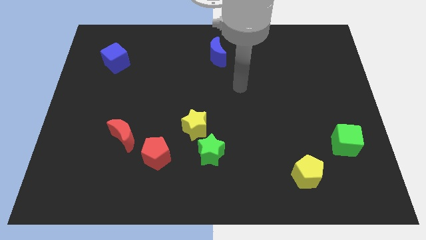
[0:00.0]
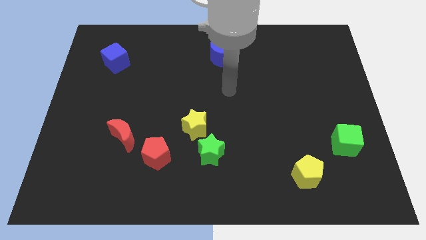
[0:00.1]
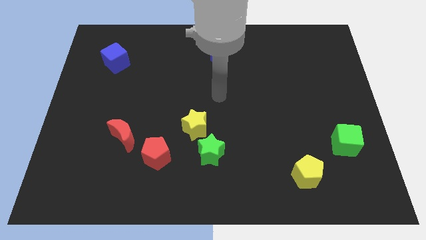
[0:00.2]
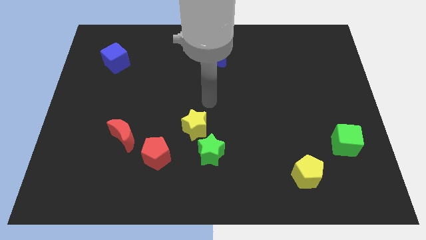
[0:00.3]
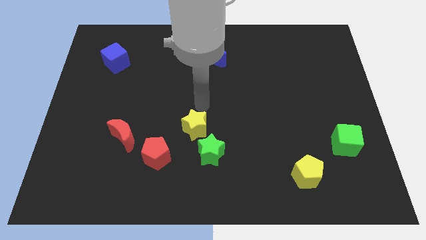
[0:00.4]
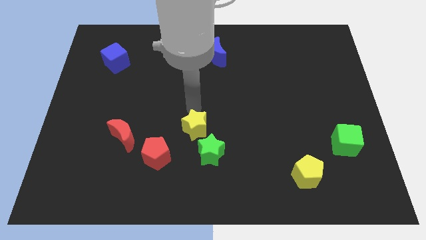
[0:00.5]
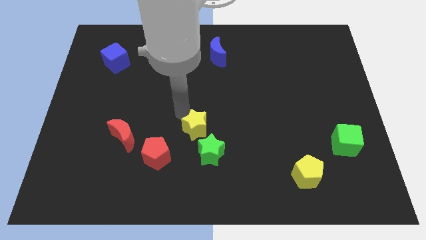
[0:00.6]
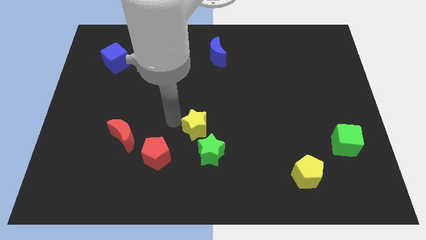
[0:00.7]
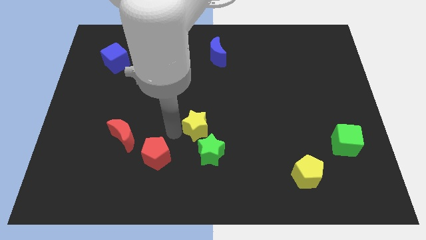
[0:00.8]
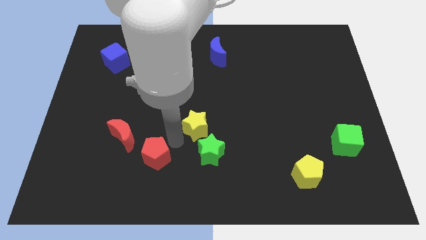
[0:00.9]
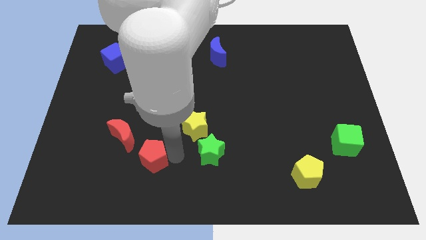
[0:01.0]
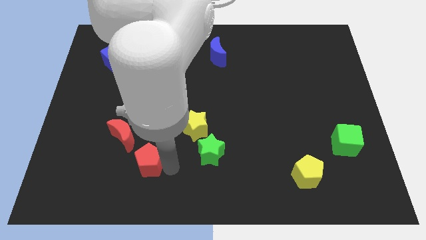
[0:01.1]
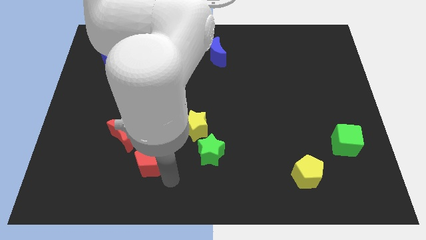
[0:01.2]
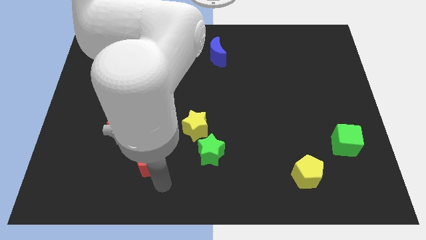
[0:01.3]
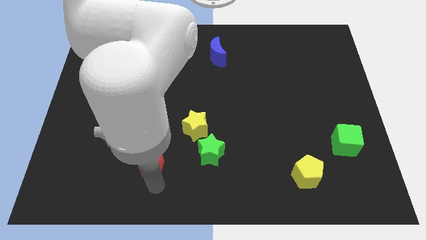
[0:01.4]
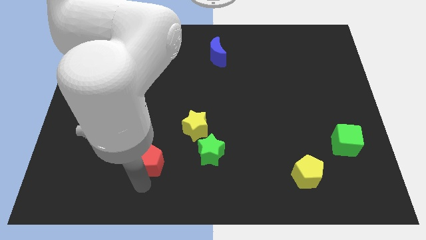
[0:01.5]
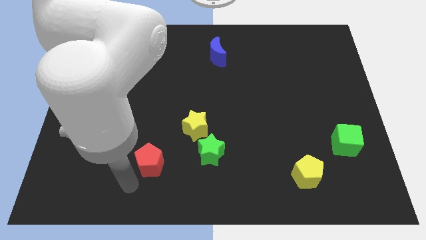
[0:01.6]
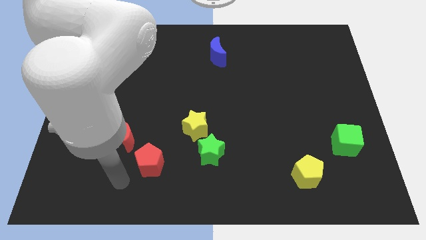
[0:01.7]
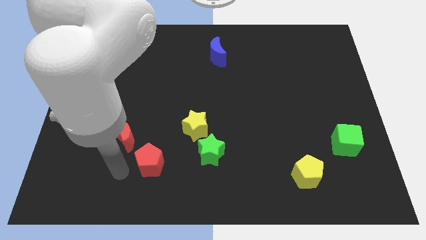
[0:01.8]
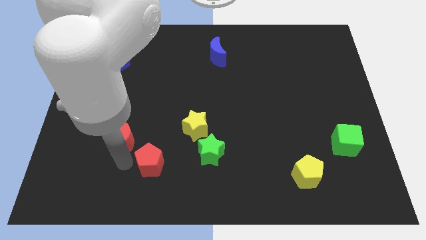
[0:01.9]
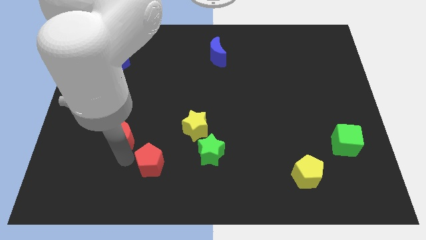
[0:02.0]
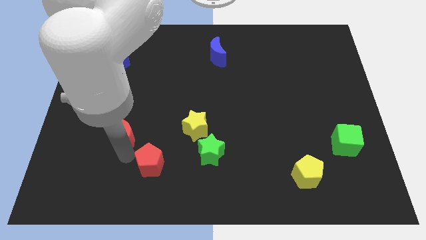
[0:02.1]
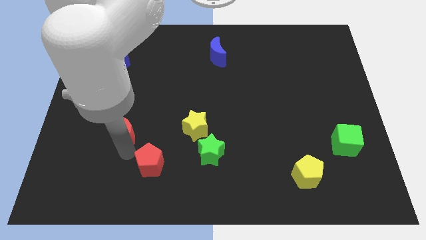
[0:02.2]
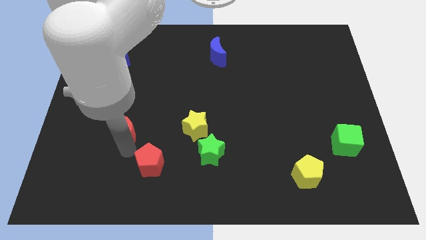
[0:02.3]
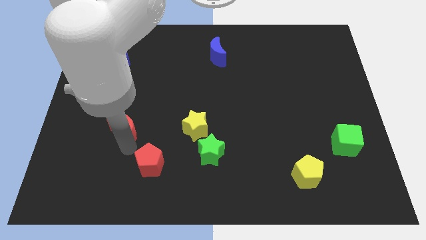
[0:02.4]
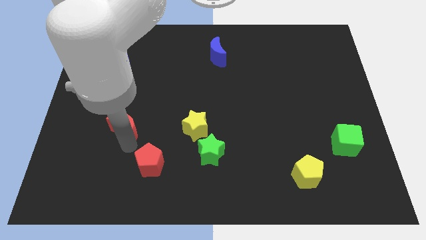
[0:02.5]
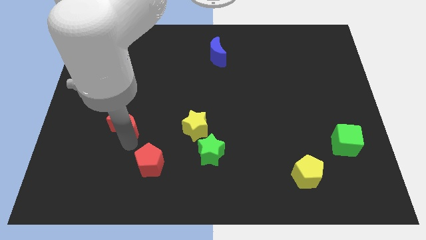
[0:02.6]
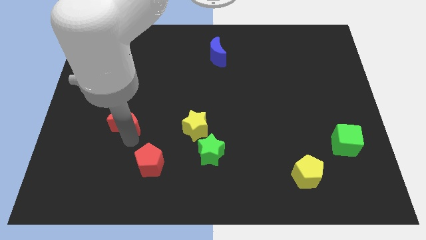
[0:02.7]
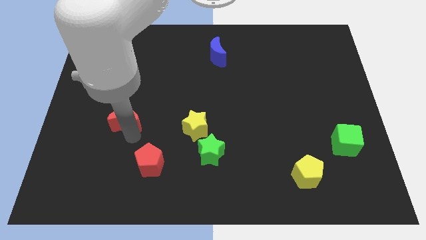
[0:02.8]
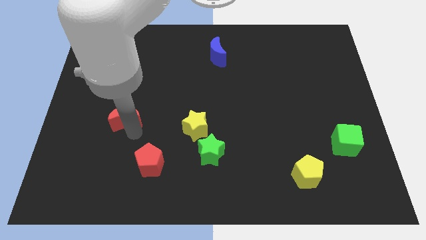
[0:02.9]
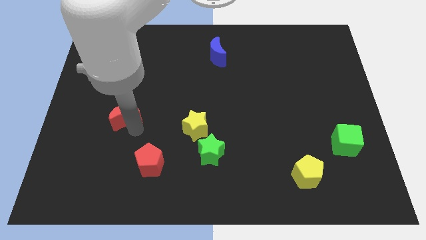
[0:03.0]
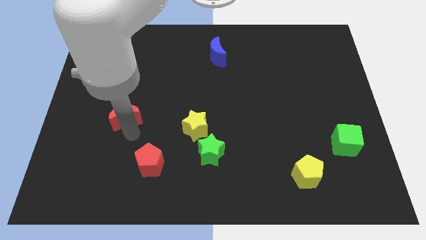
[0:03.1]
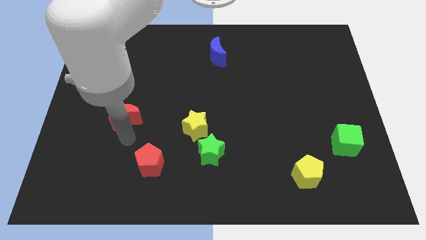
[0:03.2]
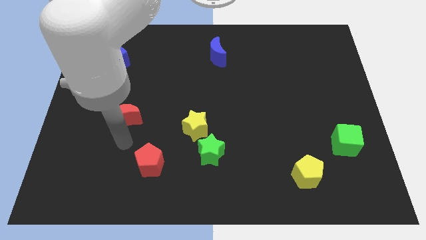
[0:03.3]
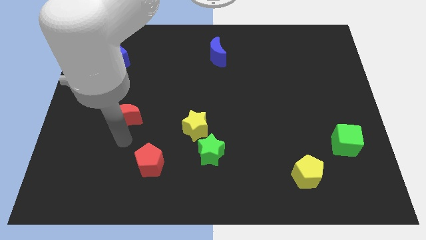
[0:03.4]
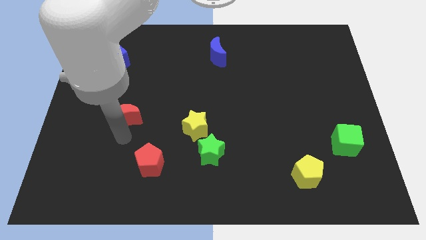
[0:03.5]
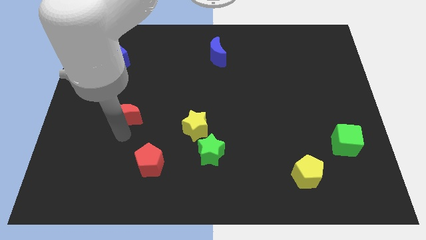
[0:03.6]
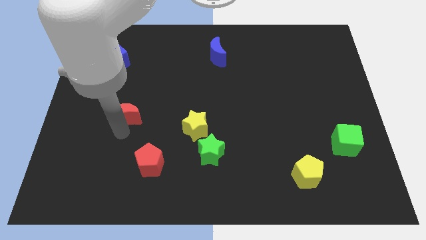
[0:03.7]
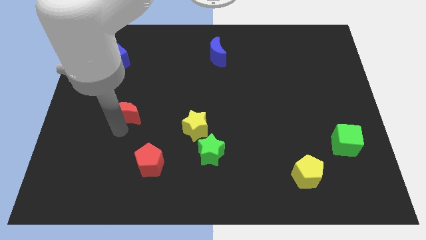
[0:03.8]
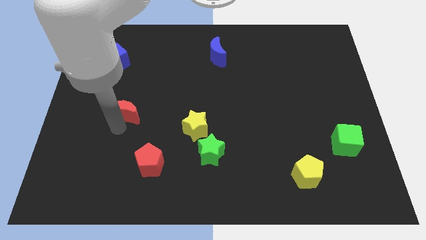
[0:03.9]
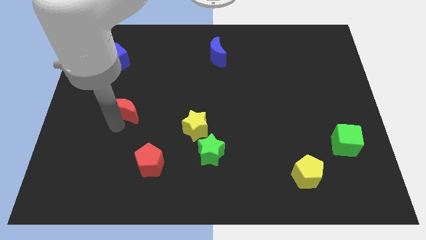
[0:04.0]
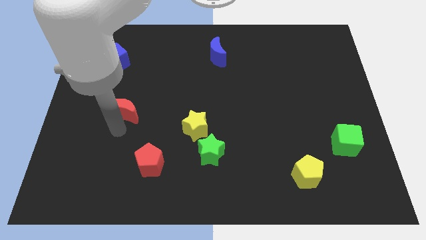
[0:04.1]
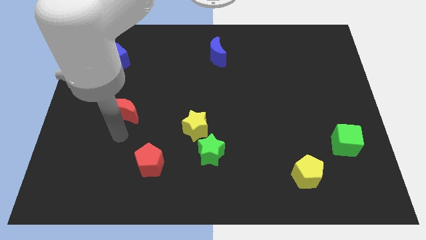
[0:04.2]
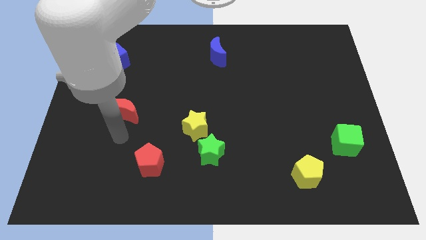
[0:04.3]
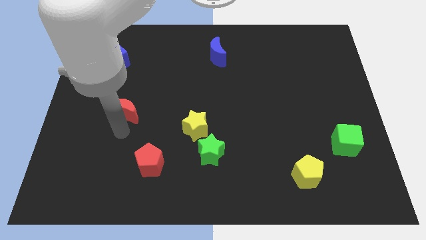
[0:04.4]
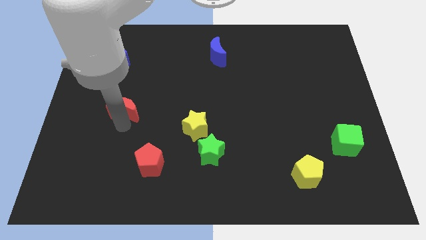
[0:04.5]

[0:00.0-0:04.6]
move the red moon a little upwards

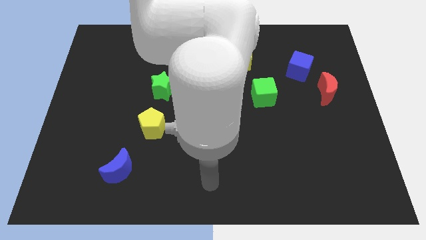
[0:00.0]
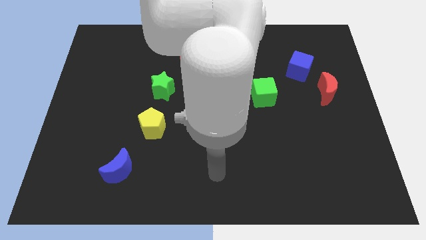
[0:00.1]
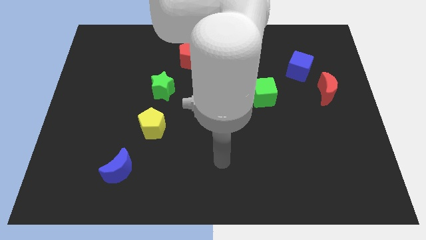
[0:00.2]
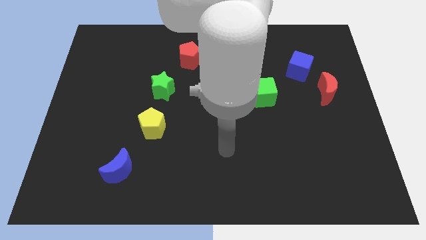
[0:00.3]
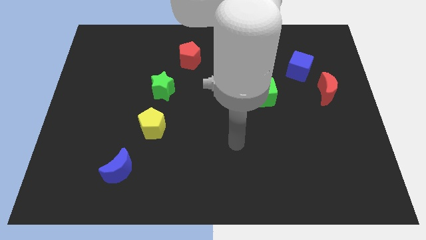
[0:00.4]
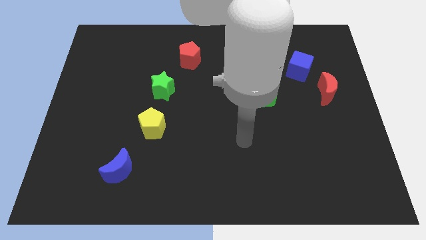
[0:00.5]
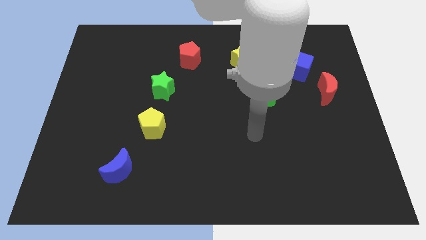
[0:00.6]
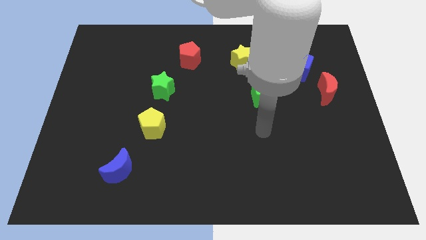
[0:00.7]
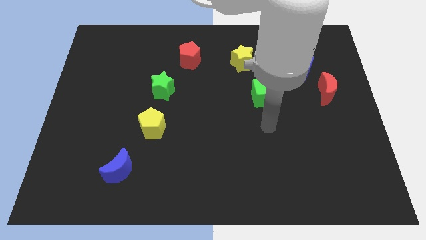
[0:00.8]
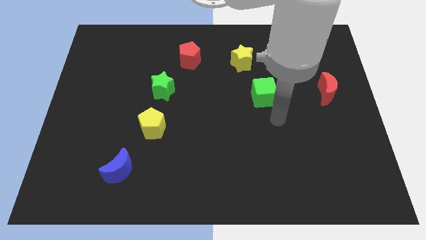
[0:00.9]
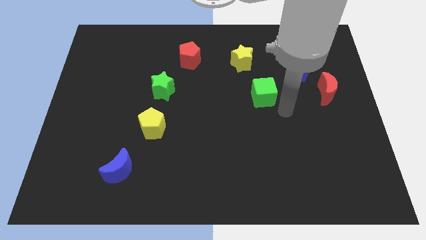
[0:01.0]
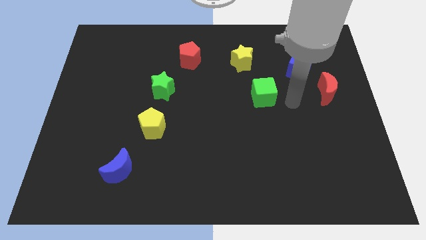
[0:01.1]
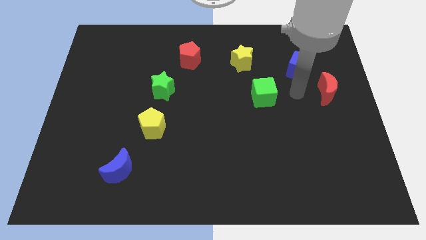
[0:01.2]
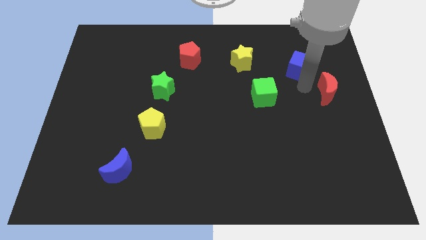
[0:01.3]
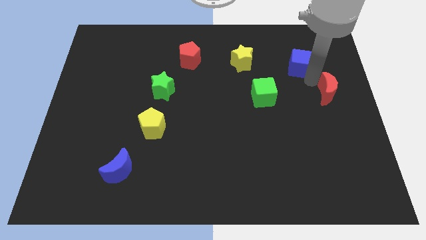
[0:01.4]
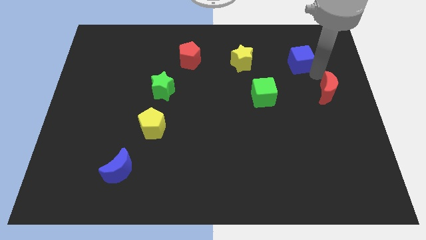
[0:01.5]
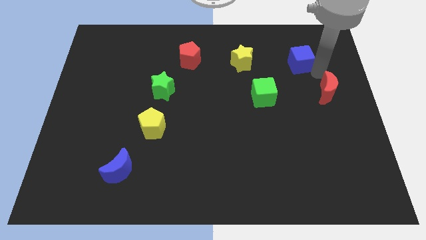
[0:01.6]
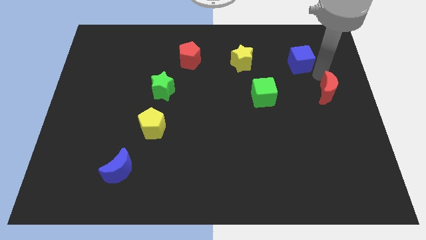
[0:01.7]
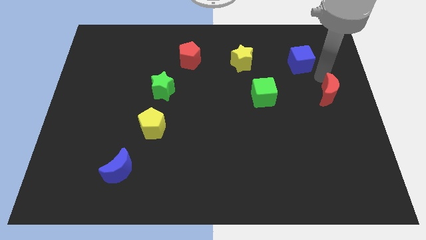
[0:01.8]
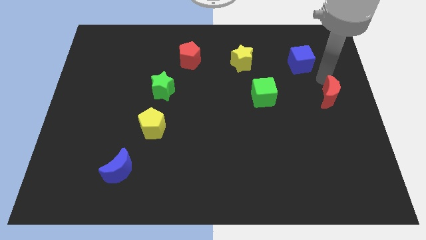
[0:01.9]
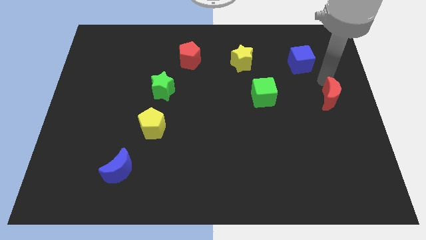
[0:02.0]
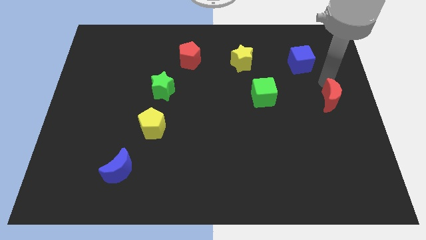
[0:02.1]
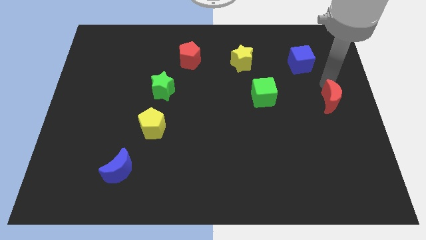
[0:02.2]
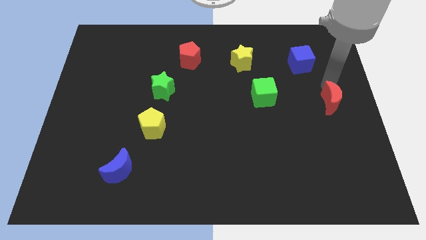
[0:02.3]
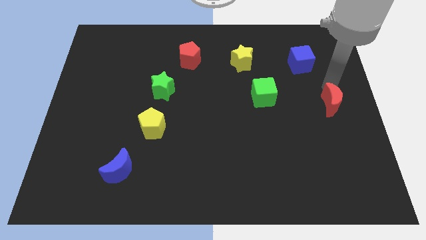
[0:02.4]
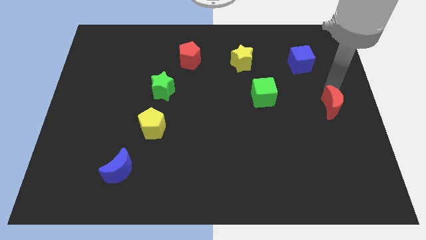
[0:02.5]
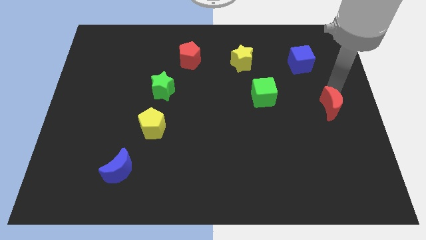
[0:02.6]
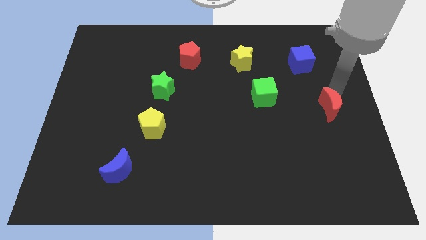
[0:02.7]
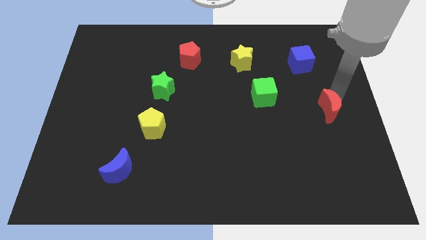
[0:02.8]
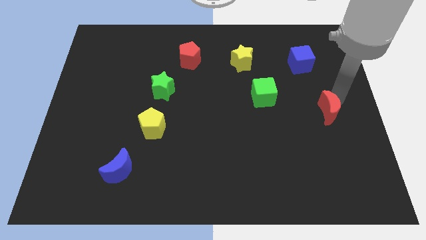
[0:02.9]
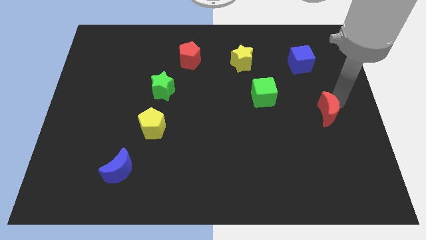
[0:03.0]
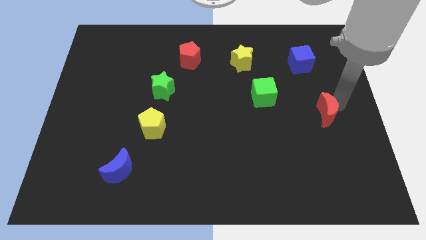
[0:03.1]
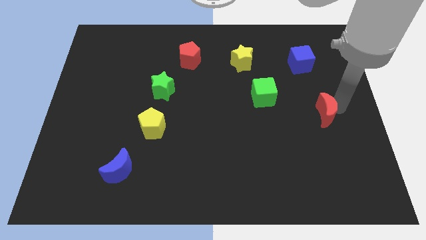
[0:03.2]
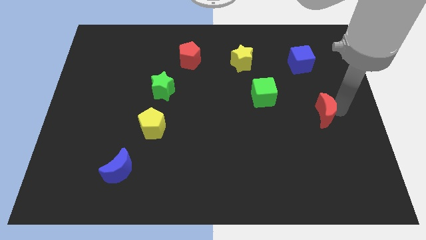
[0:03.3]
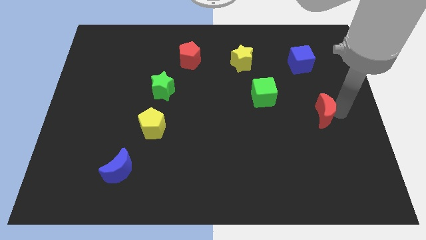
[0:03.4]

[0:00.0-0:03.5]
slide the red moon downwards a bit
